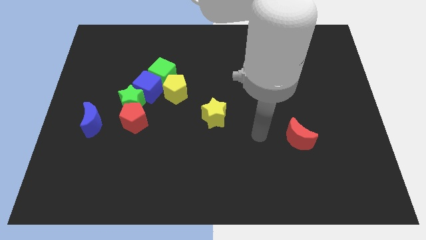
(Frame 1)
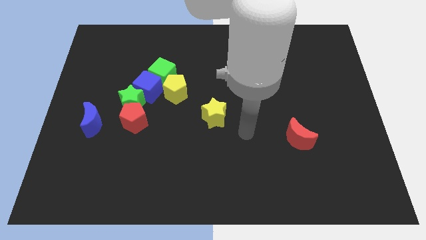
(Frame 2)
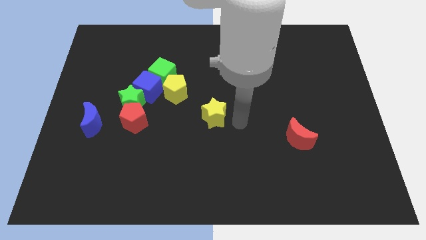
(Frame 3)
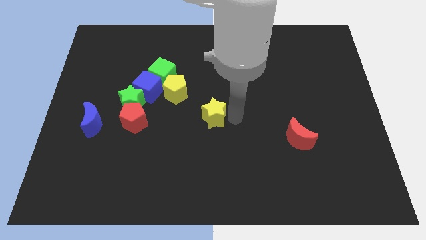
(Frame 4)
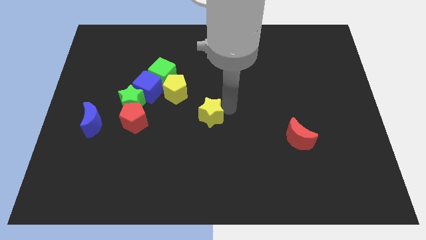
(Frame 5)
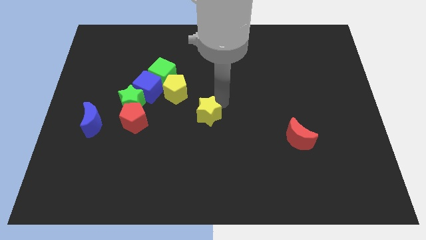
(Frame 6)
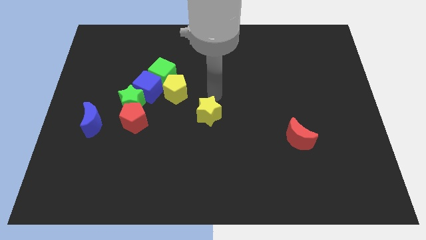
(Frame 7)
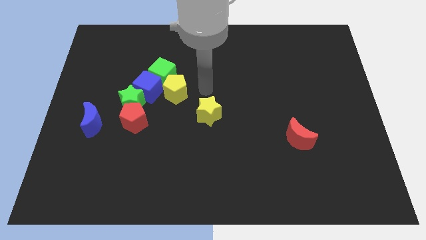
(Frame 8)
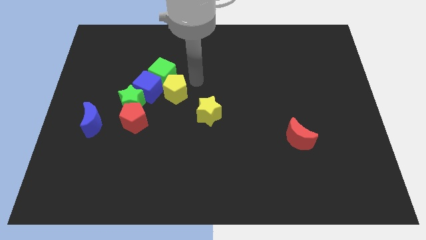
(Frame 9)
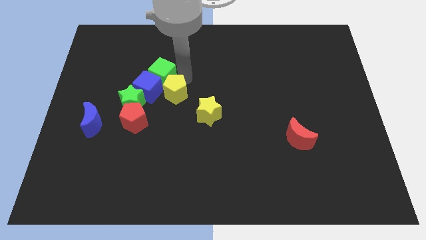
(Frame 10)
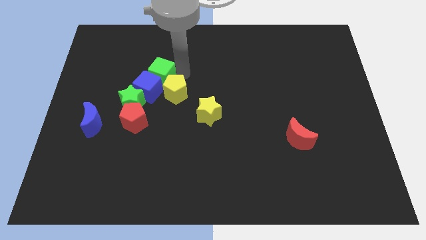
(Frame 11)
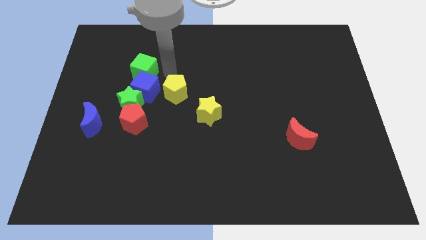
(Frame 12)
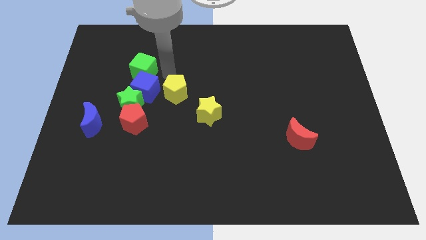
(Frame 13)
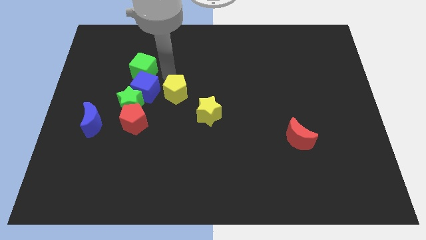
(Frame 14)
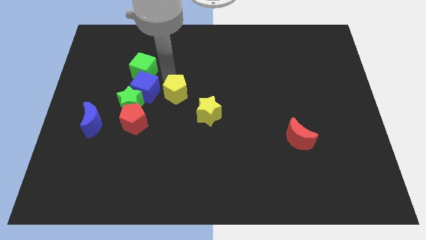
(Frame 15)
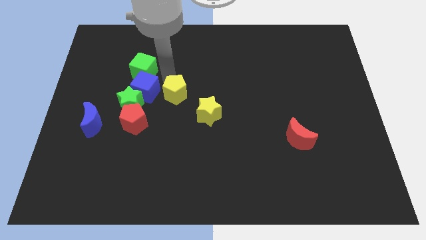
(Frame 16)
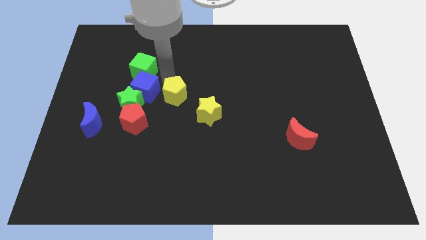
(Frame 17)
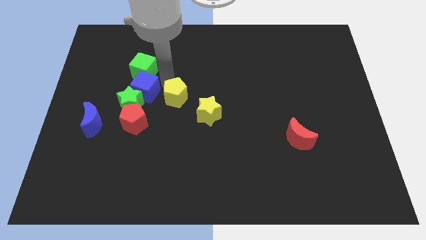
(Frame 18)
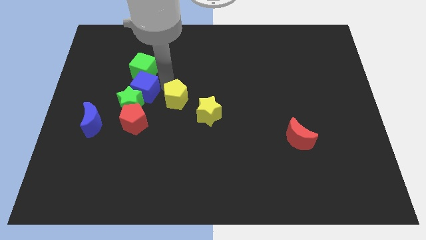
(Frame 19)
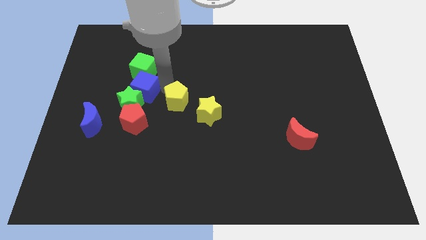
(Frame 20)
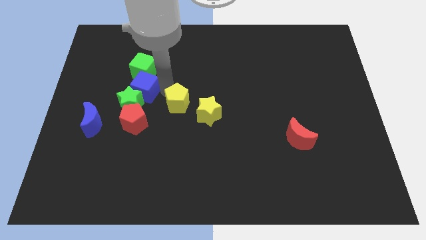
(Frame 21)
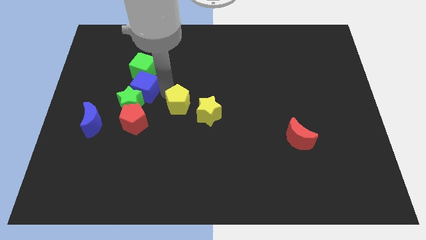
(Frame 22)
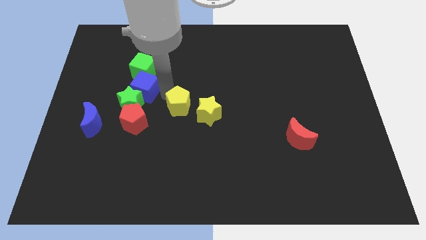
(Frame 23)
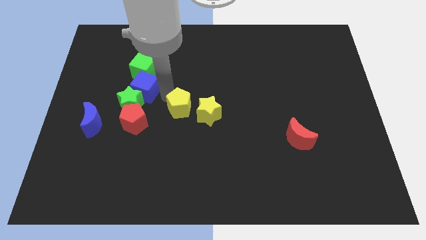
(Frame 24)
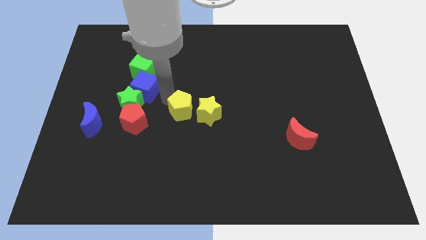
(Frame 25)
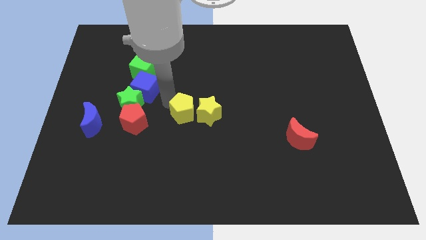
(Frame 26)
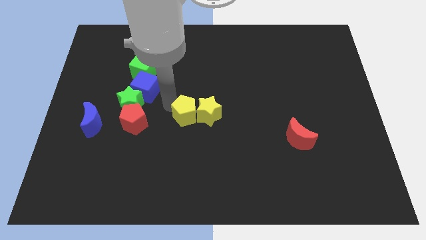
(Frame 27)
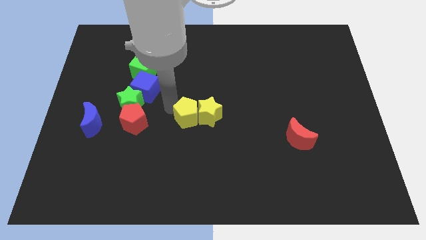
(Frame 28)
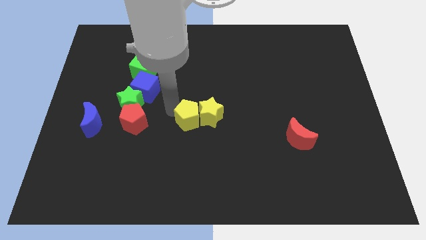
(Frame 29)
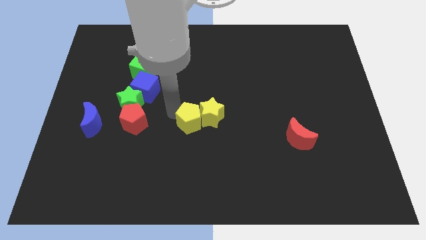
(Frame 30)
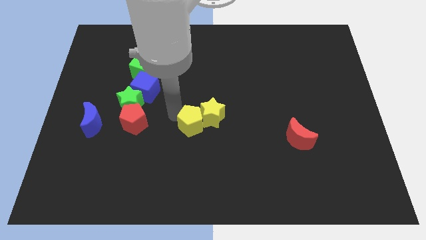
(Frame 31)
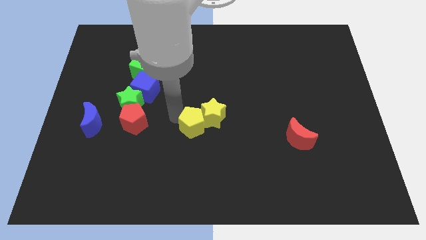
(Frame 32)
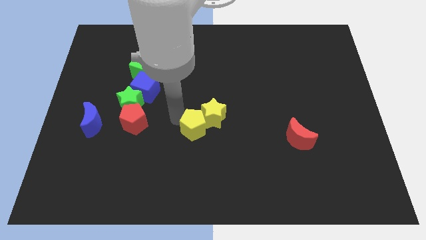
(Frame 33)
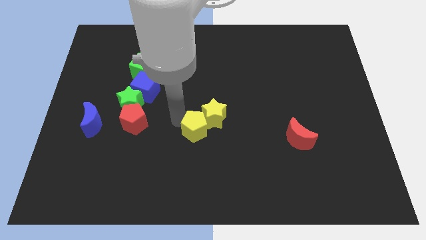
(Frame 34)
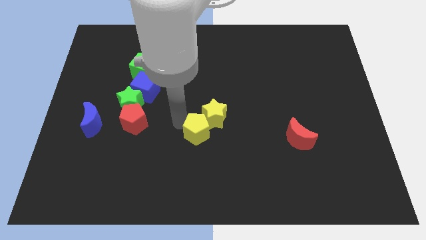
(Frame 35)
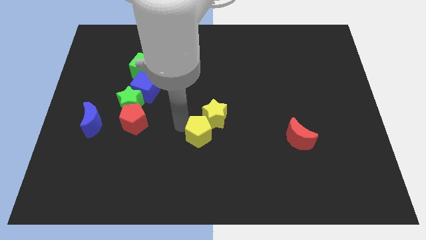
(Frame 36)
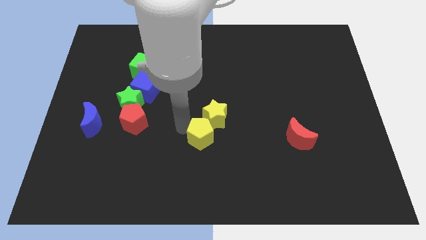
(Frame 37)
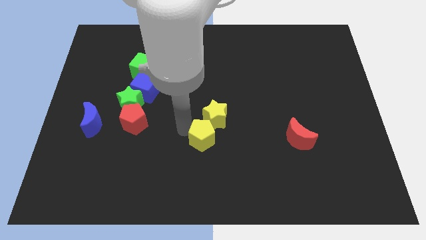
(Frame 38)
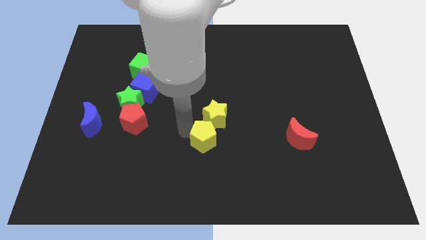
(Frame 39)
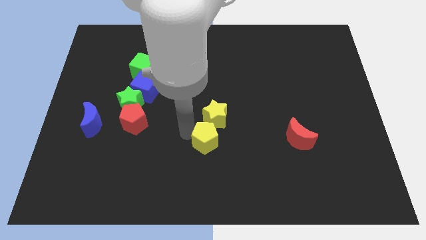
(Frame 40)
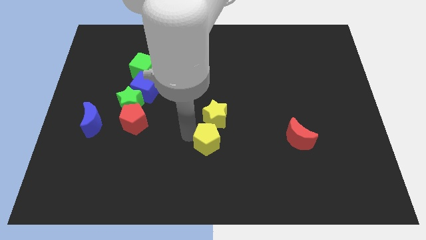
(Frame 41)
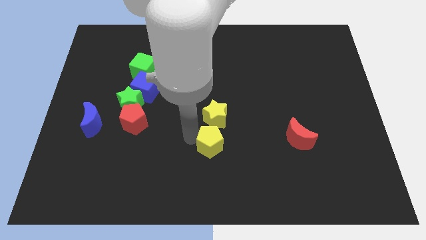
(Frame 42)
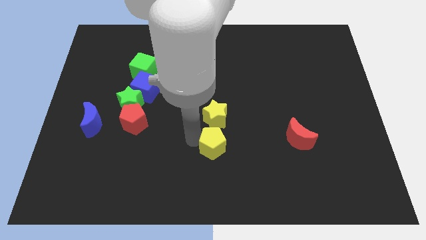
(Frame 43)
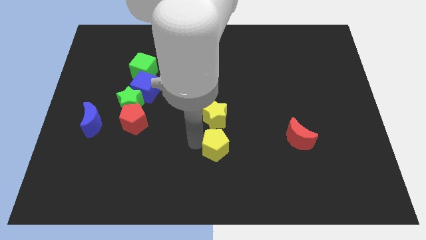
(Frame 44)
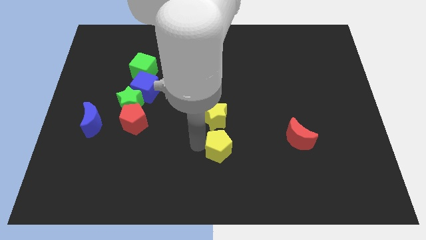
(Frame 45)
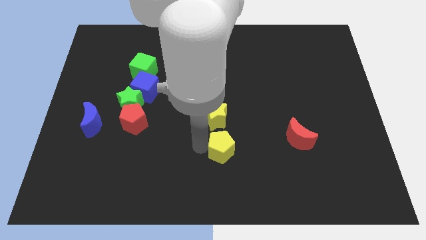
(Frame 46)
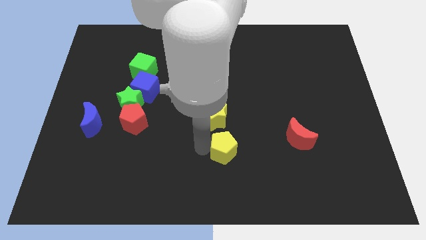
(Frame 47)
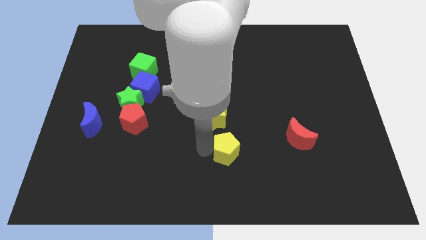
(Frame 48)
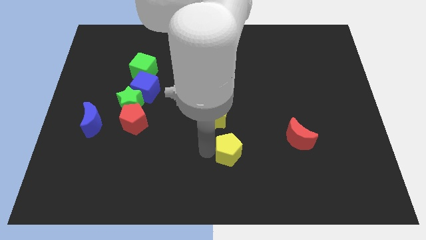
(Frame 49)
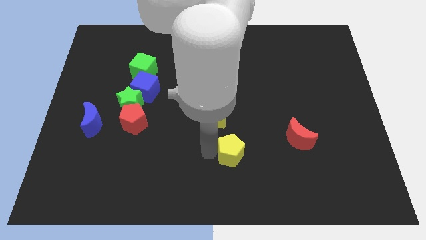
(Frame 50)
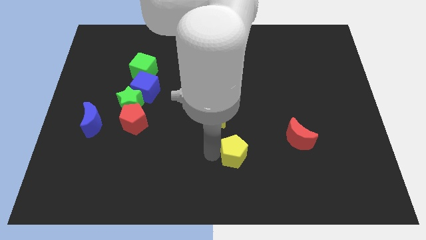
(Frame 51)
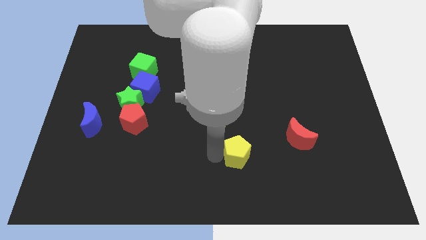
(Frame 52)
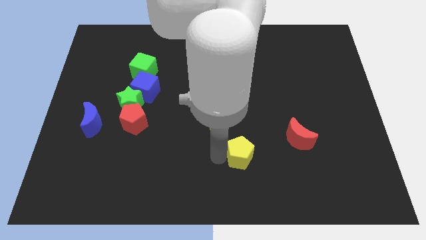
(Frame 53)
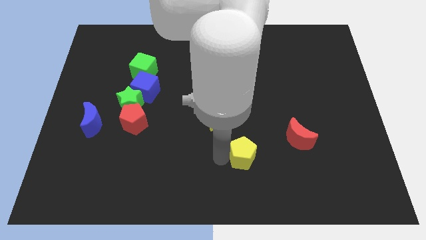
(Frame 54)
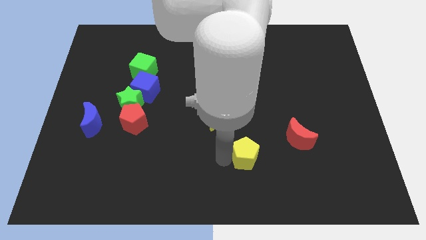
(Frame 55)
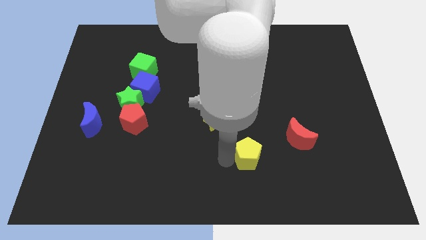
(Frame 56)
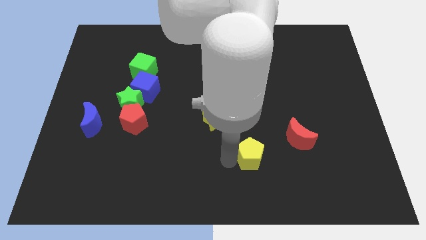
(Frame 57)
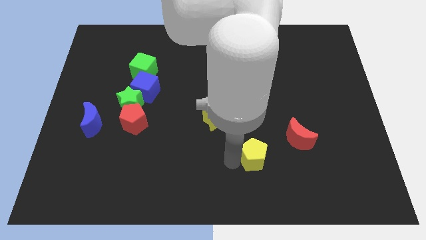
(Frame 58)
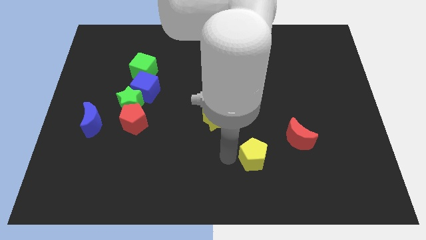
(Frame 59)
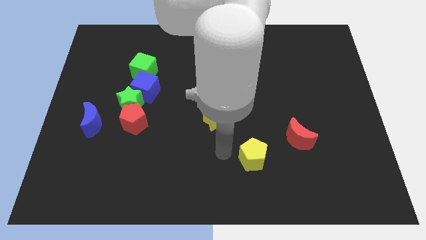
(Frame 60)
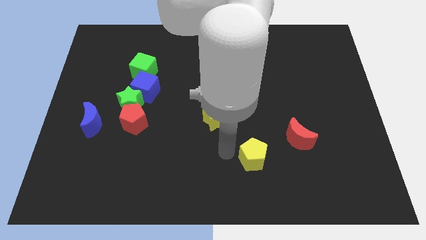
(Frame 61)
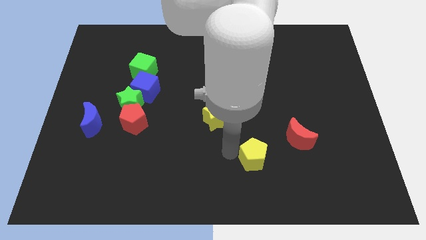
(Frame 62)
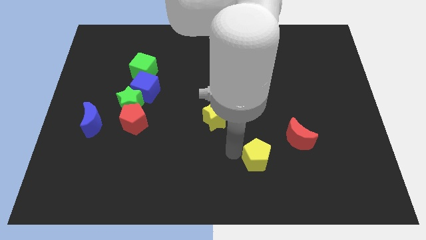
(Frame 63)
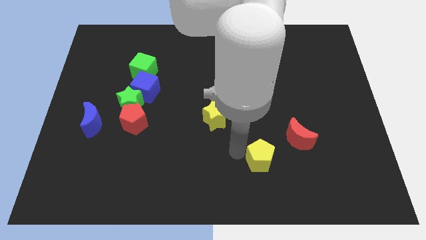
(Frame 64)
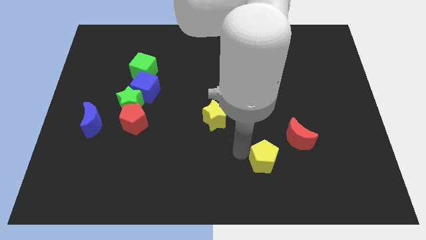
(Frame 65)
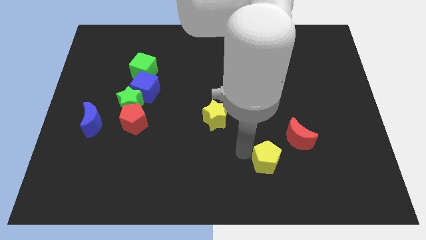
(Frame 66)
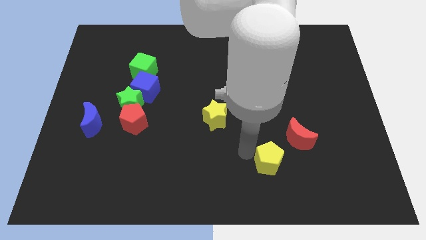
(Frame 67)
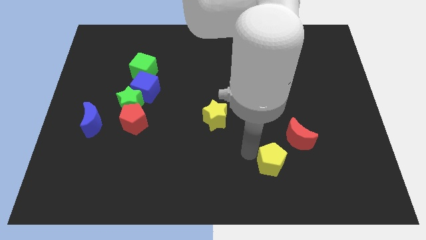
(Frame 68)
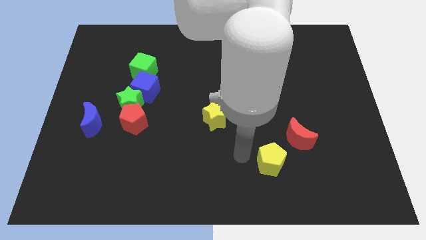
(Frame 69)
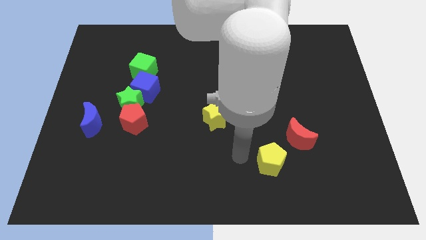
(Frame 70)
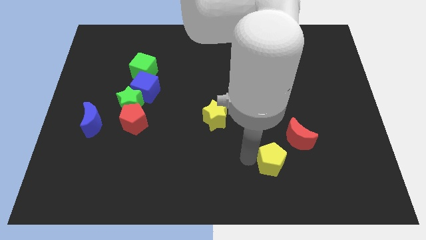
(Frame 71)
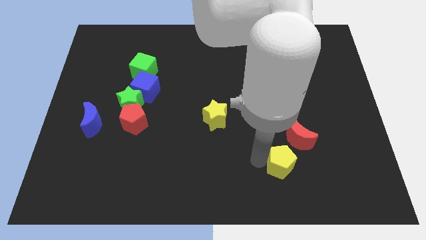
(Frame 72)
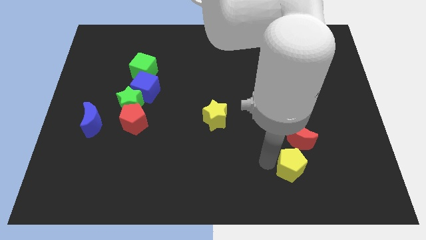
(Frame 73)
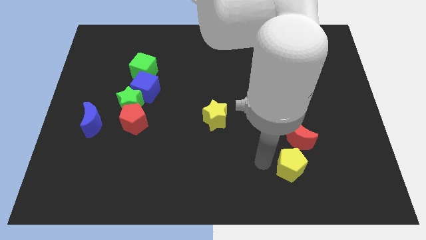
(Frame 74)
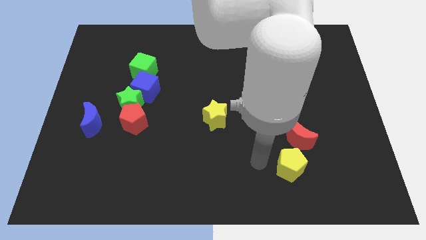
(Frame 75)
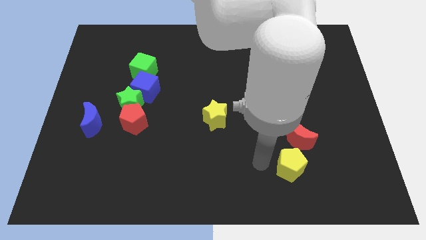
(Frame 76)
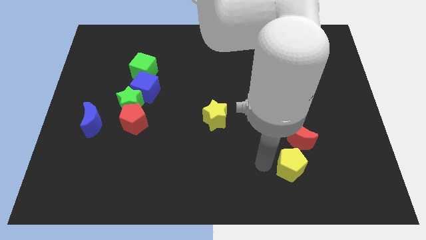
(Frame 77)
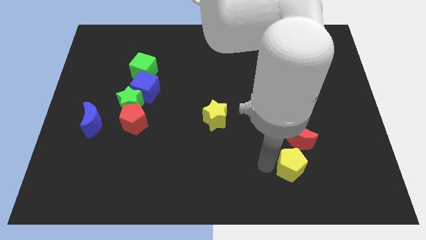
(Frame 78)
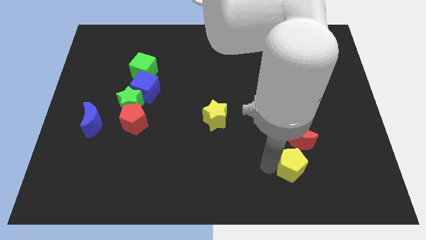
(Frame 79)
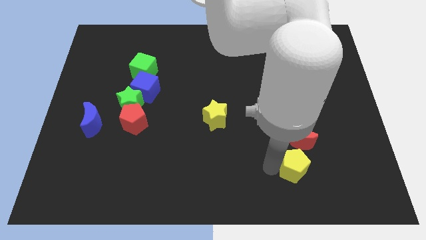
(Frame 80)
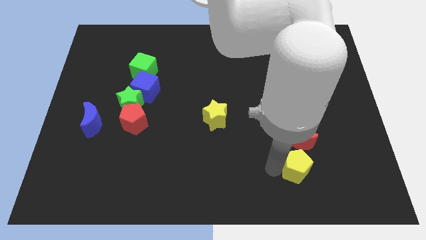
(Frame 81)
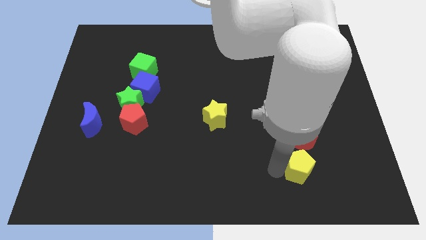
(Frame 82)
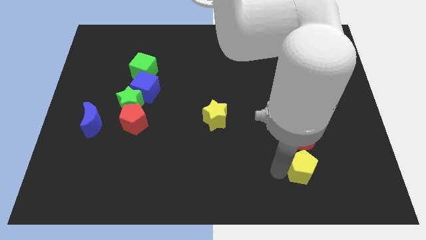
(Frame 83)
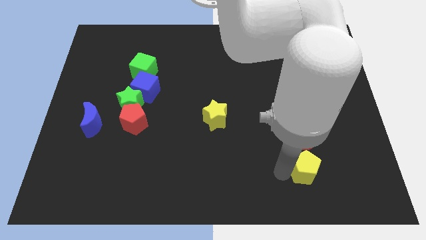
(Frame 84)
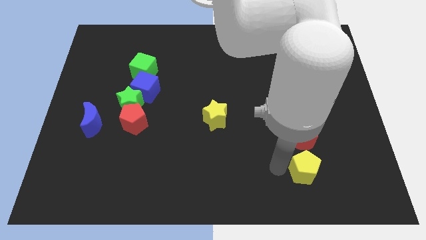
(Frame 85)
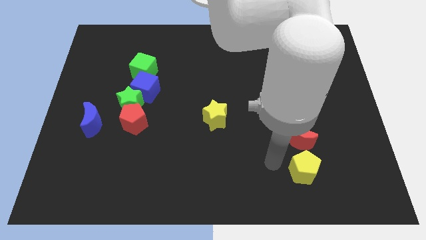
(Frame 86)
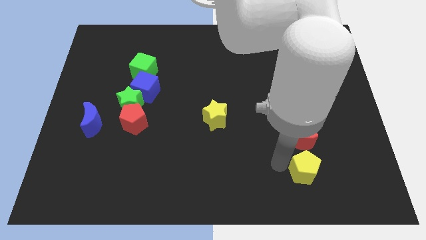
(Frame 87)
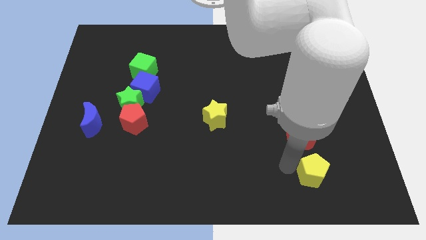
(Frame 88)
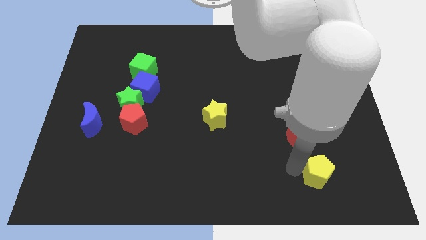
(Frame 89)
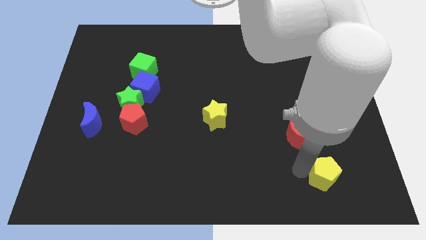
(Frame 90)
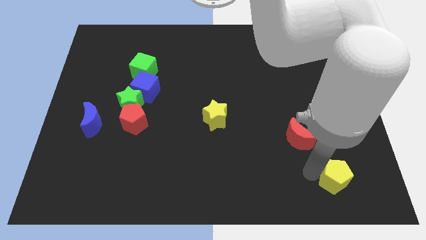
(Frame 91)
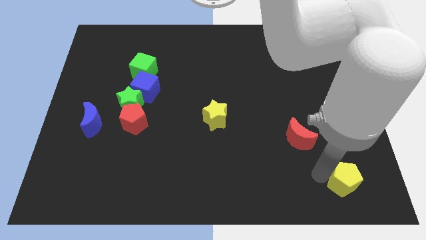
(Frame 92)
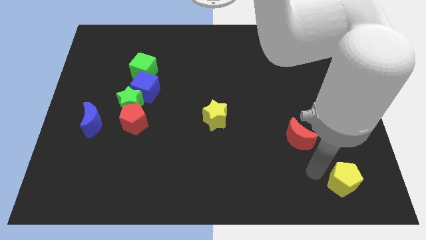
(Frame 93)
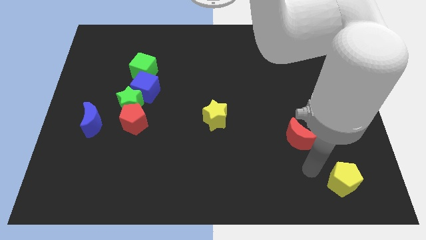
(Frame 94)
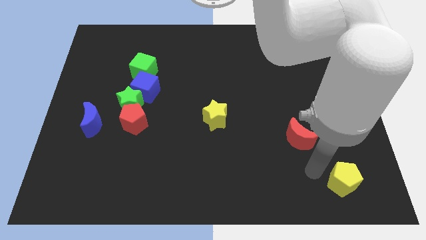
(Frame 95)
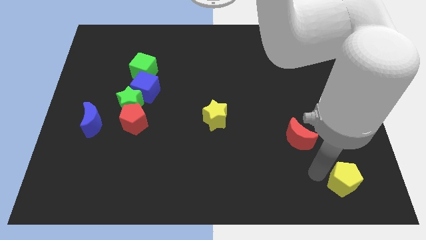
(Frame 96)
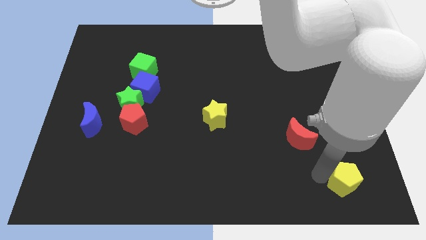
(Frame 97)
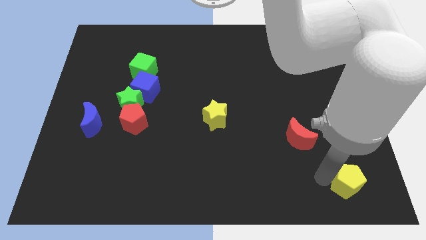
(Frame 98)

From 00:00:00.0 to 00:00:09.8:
move the yellow pentagon to the bottom right of the board
